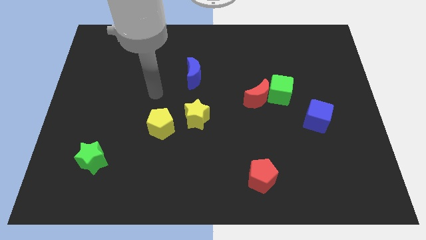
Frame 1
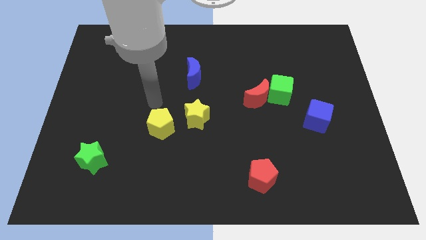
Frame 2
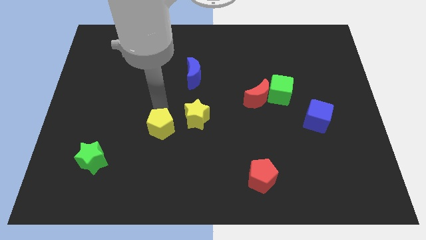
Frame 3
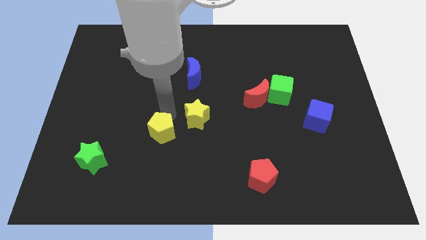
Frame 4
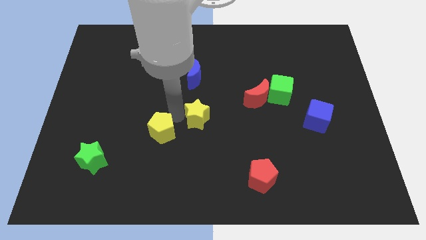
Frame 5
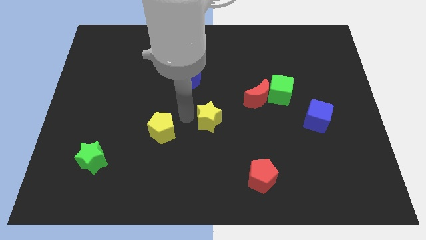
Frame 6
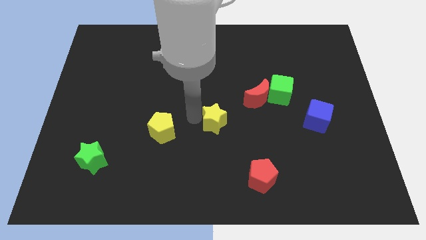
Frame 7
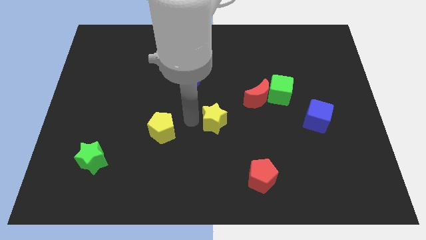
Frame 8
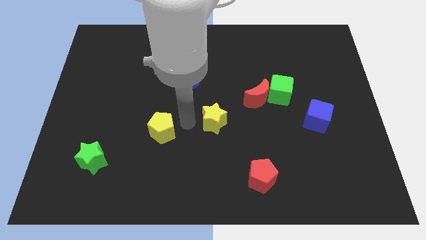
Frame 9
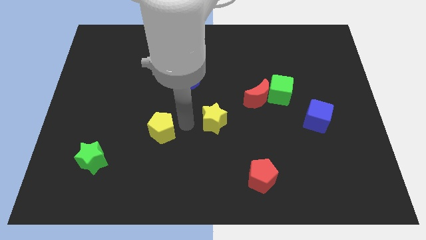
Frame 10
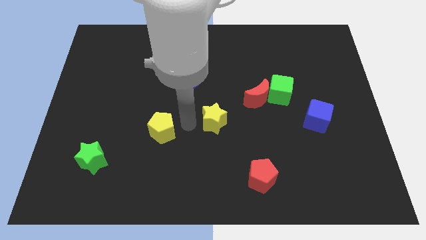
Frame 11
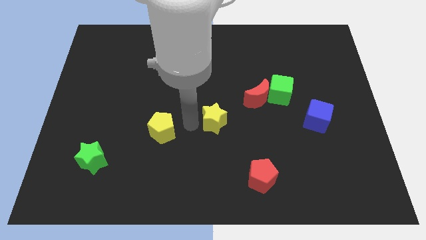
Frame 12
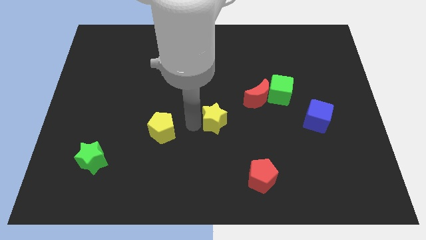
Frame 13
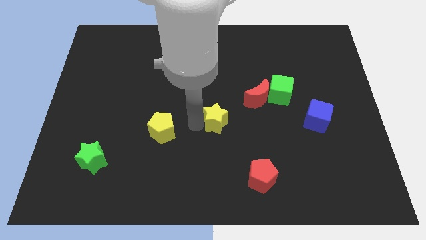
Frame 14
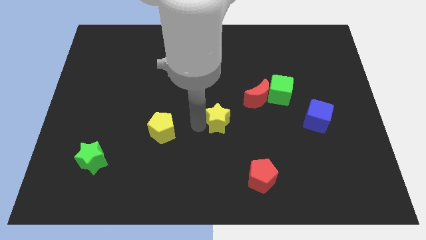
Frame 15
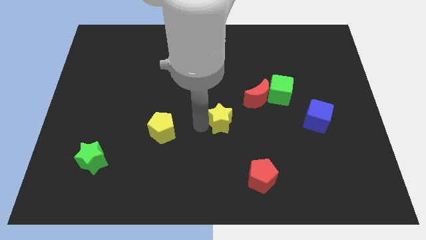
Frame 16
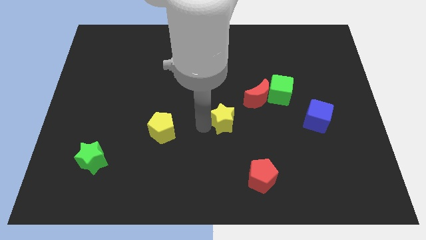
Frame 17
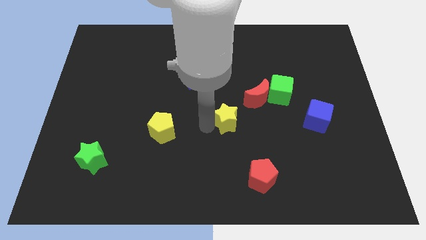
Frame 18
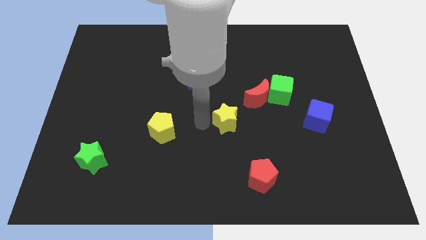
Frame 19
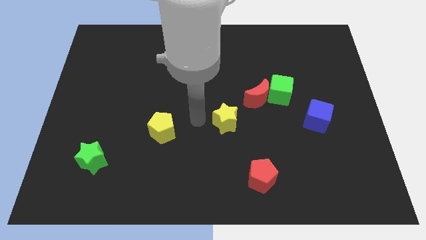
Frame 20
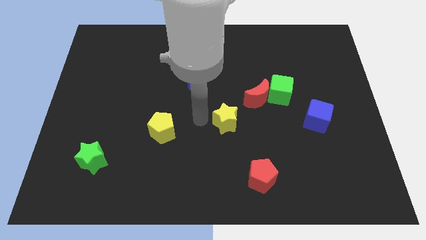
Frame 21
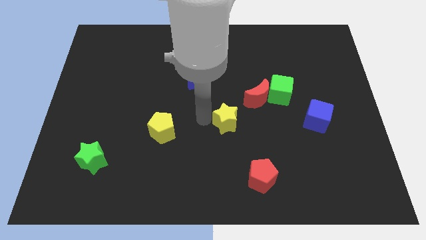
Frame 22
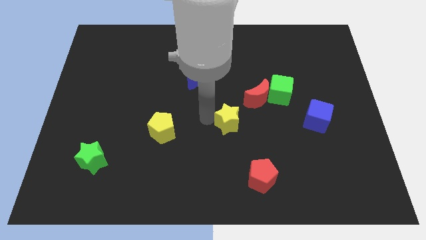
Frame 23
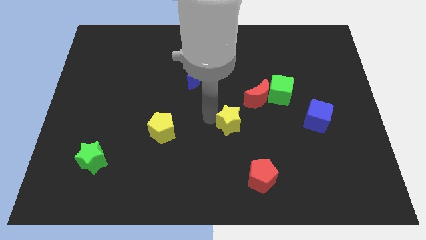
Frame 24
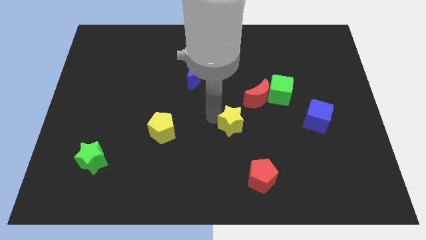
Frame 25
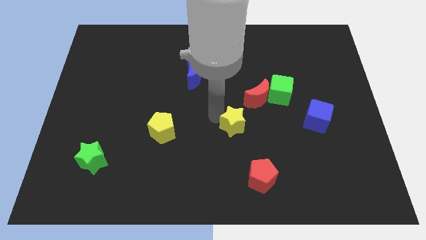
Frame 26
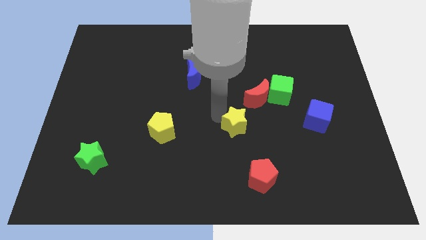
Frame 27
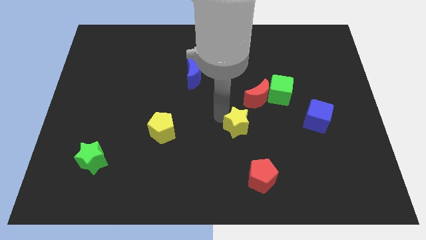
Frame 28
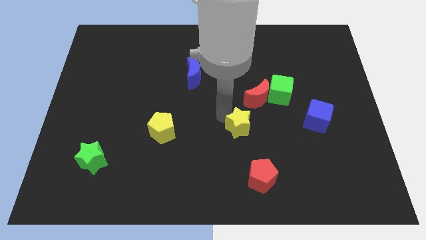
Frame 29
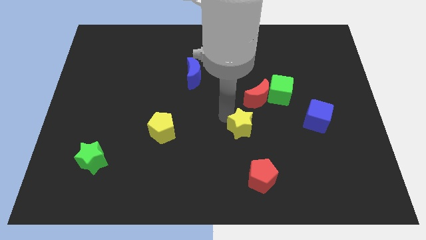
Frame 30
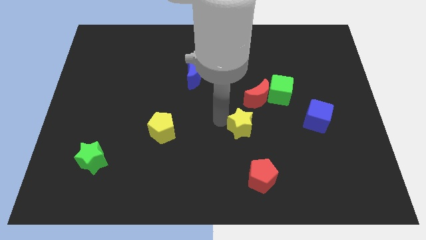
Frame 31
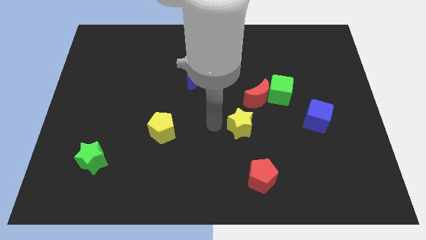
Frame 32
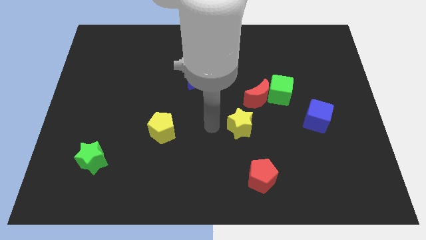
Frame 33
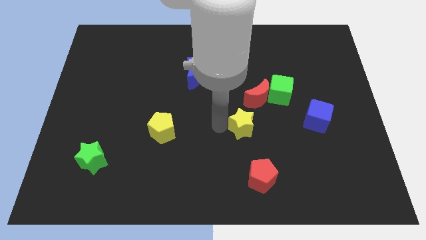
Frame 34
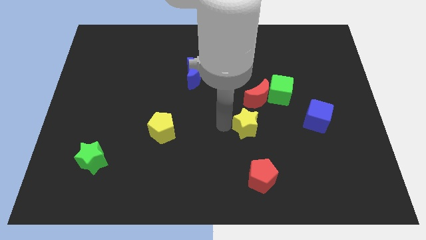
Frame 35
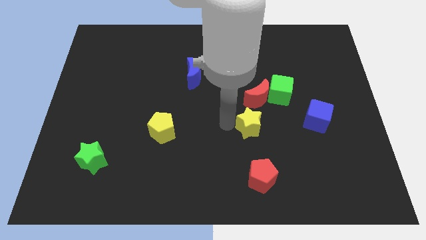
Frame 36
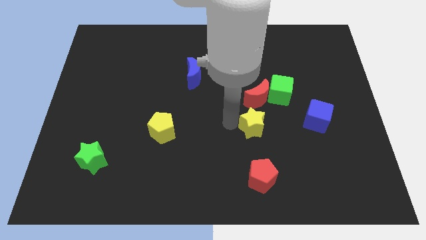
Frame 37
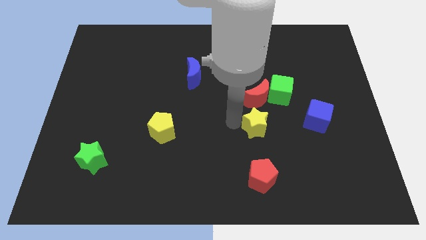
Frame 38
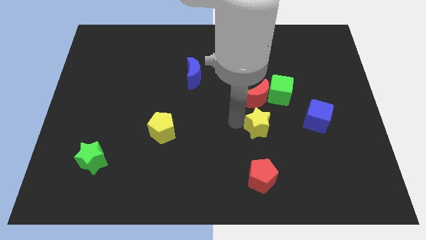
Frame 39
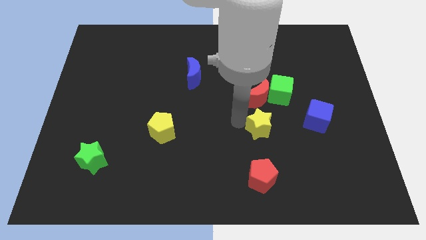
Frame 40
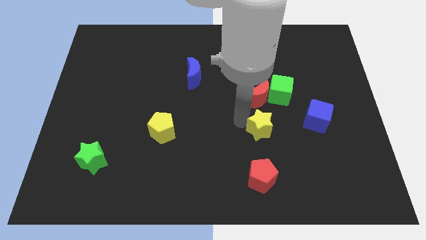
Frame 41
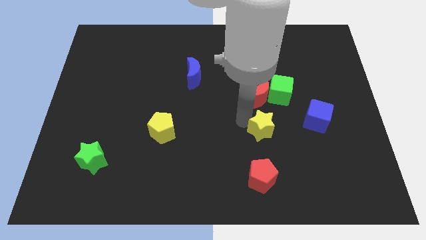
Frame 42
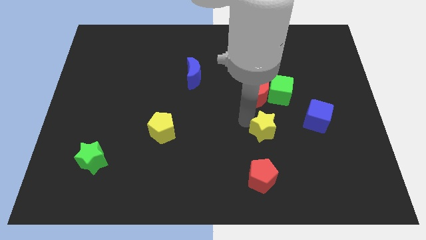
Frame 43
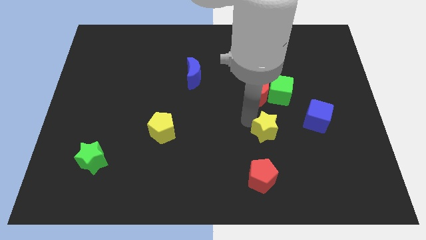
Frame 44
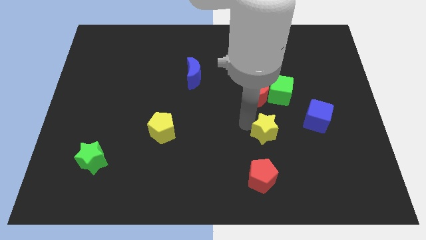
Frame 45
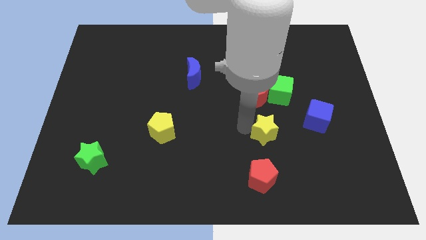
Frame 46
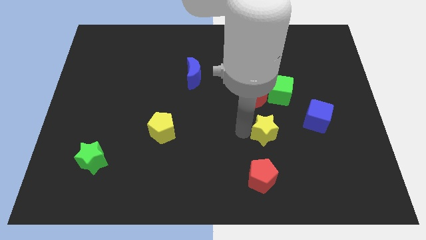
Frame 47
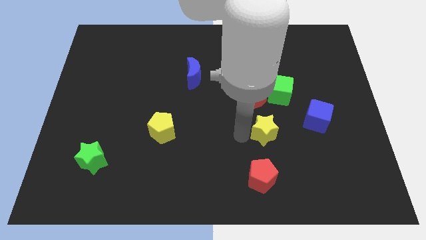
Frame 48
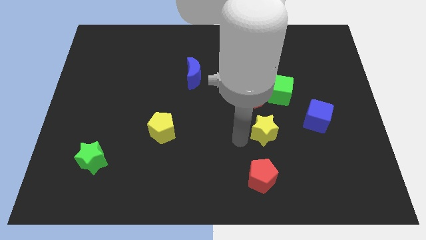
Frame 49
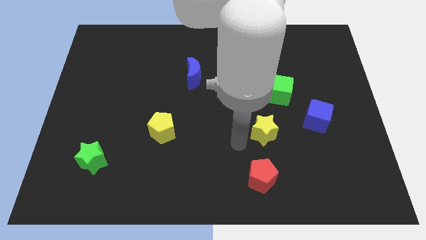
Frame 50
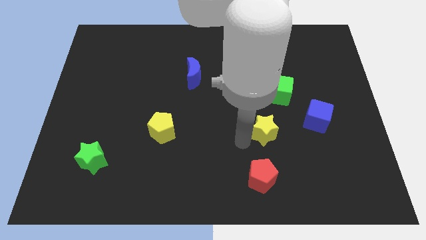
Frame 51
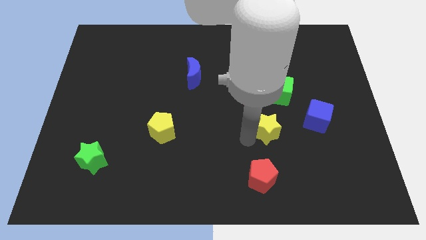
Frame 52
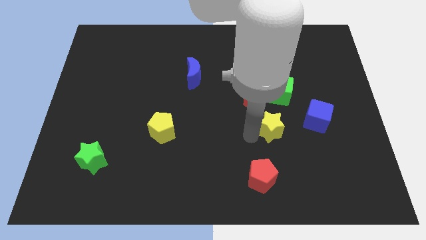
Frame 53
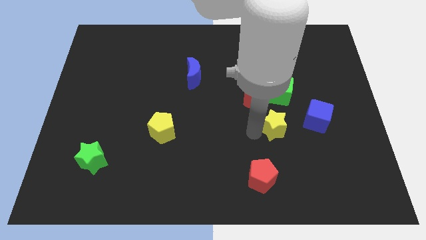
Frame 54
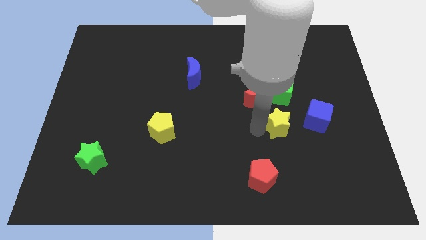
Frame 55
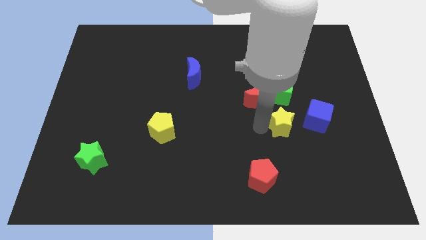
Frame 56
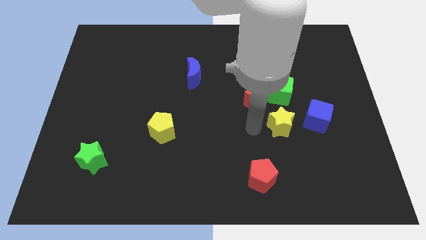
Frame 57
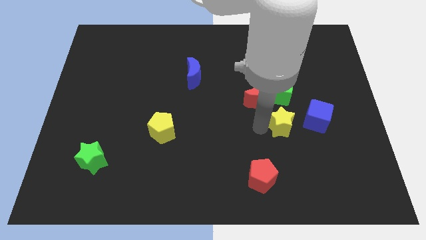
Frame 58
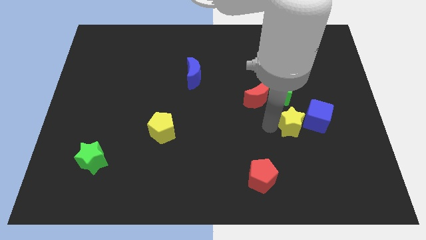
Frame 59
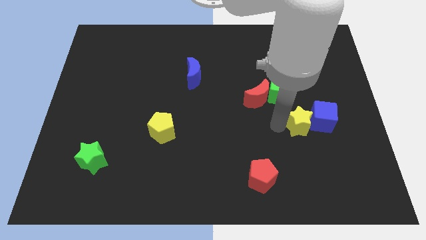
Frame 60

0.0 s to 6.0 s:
push the yellow star towards the blue cube

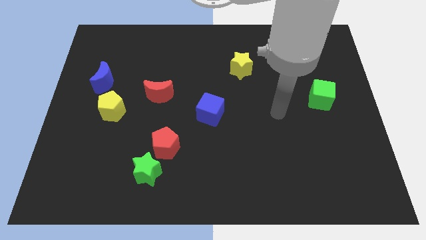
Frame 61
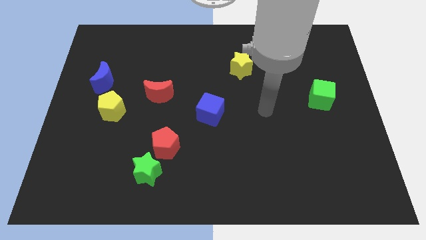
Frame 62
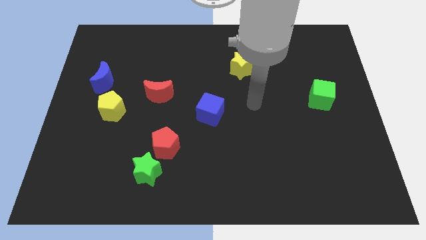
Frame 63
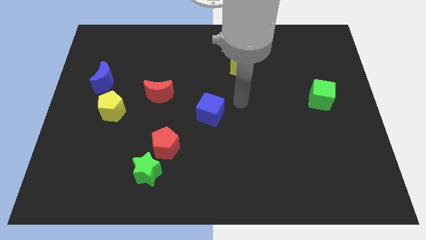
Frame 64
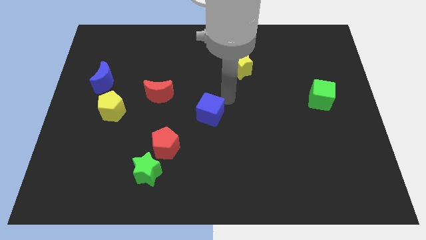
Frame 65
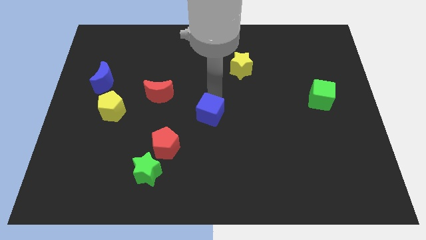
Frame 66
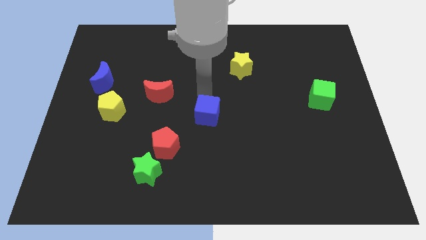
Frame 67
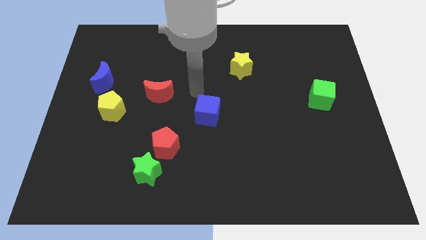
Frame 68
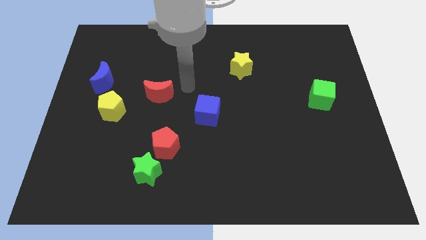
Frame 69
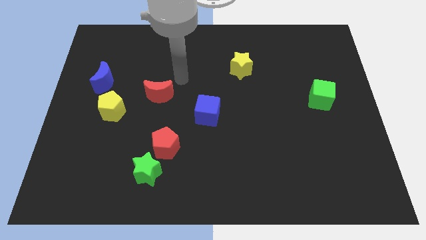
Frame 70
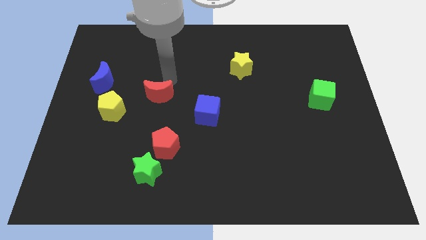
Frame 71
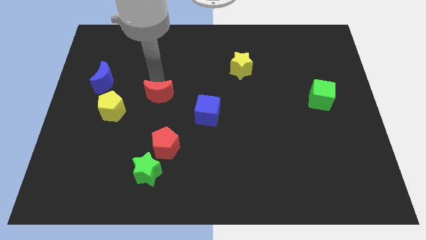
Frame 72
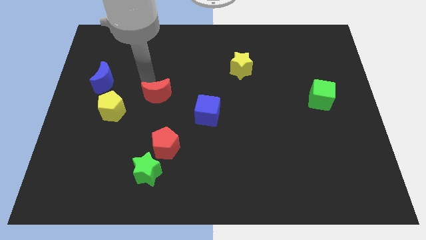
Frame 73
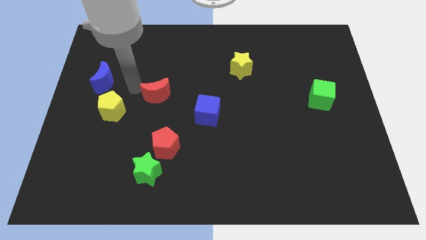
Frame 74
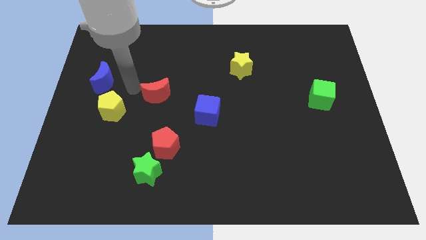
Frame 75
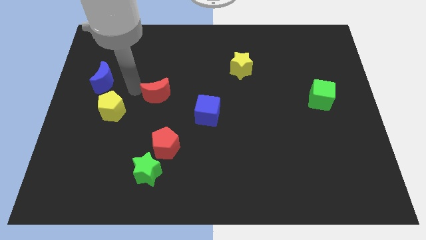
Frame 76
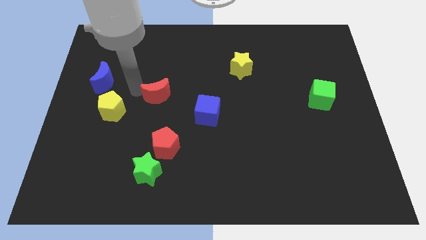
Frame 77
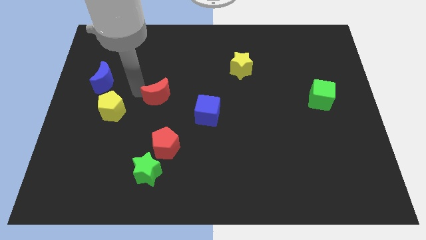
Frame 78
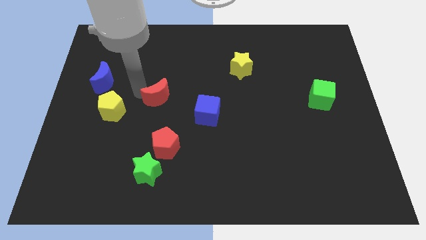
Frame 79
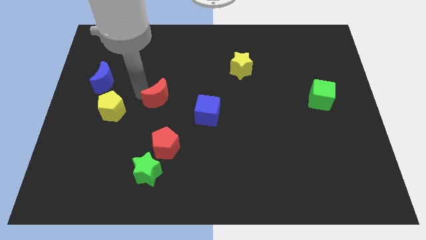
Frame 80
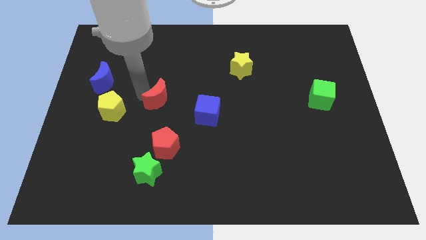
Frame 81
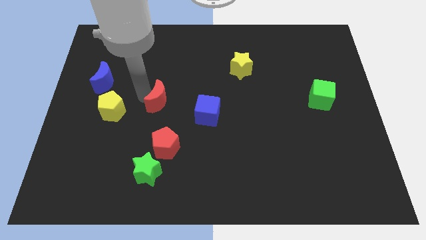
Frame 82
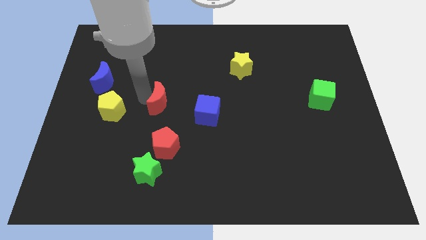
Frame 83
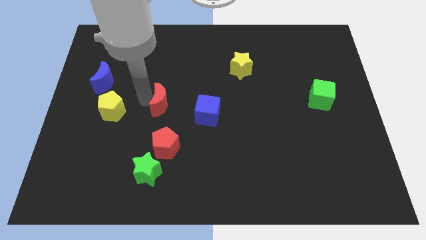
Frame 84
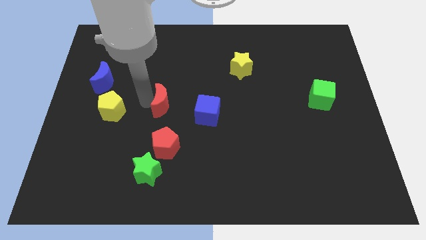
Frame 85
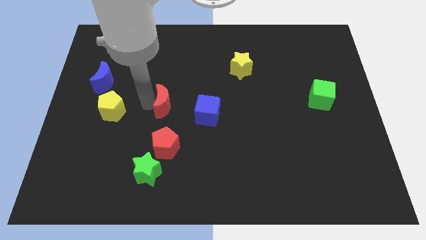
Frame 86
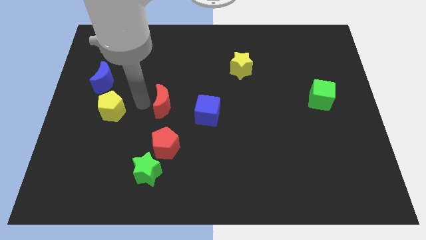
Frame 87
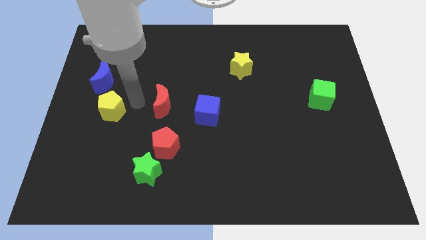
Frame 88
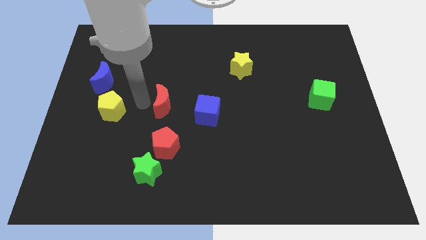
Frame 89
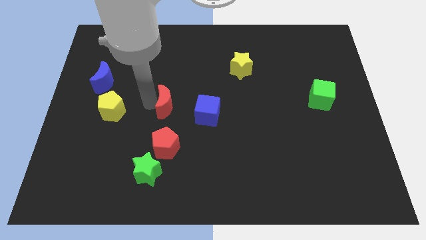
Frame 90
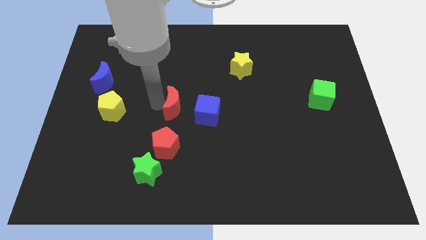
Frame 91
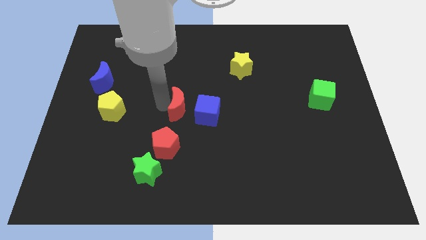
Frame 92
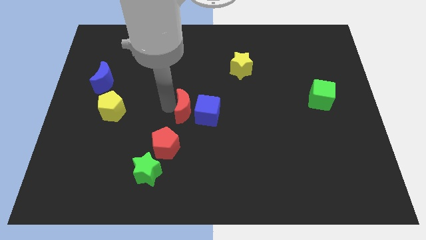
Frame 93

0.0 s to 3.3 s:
put the red moon close to the blue cube
